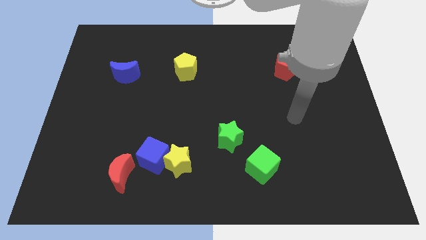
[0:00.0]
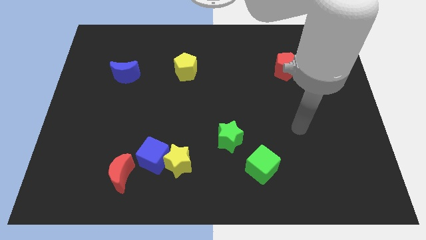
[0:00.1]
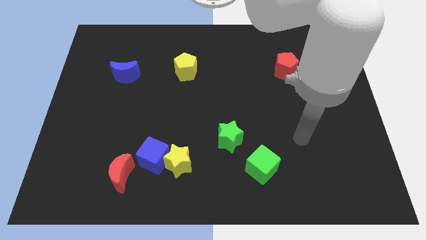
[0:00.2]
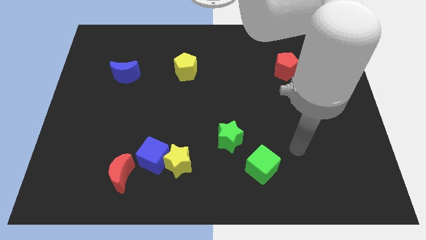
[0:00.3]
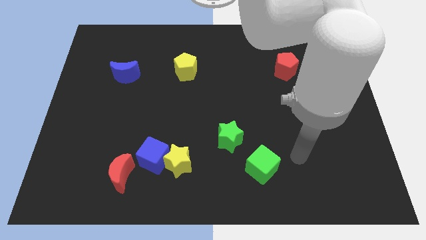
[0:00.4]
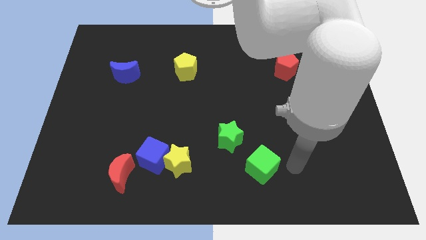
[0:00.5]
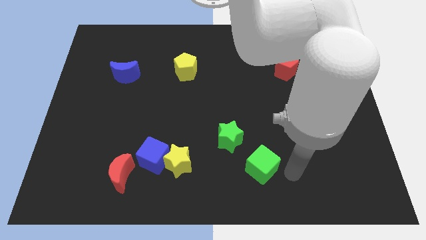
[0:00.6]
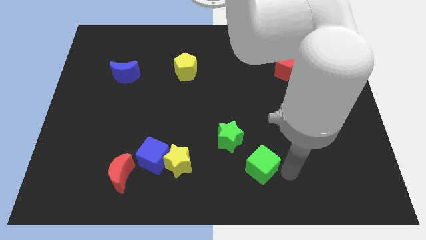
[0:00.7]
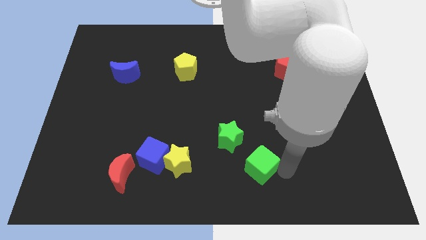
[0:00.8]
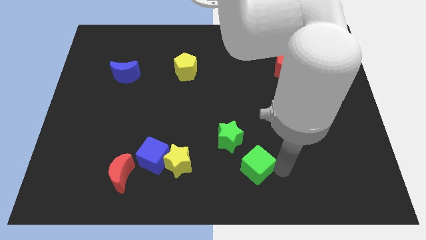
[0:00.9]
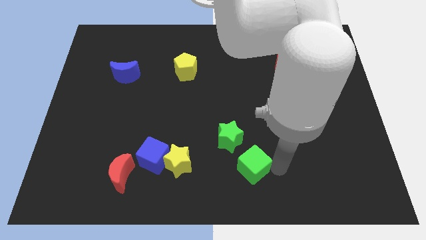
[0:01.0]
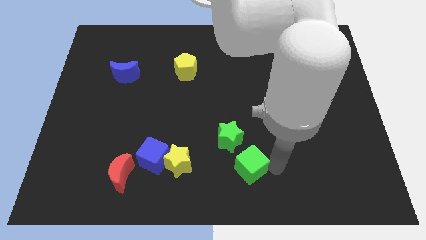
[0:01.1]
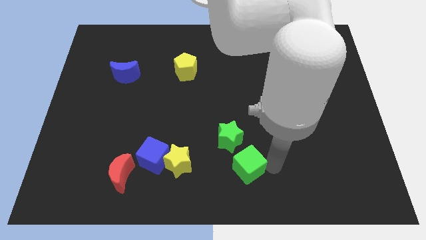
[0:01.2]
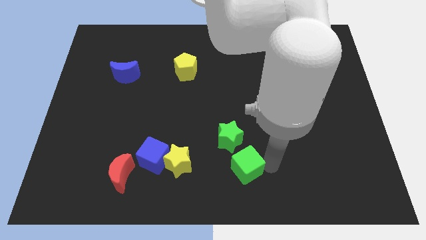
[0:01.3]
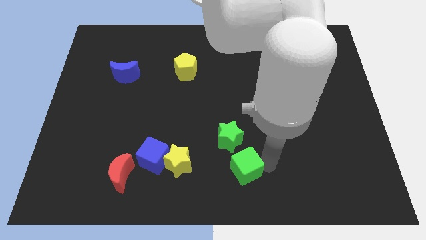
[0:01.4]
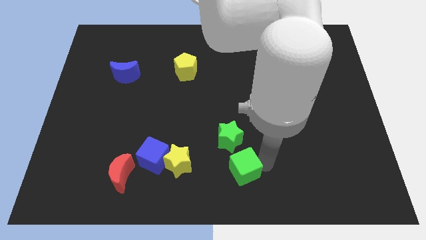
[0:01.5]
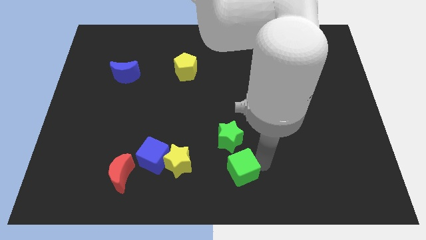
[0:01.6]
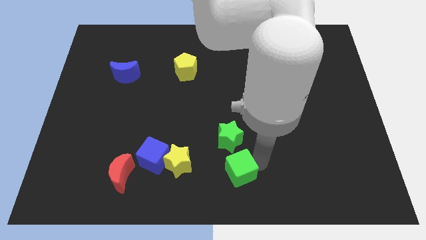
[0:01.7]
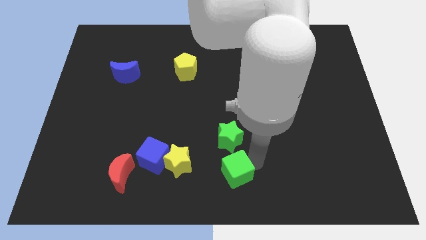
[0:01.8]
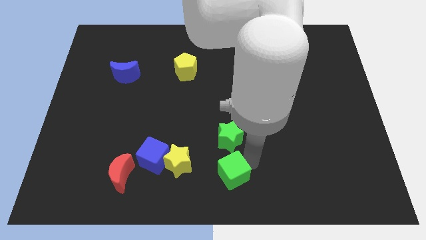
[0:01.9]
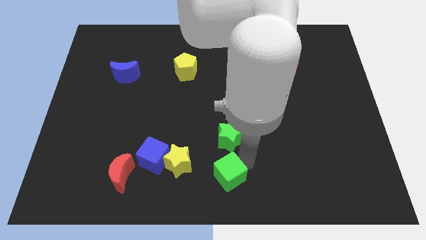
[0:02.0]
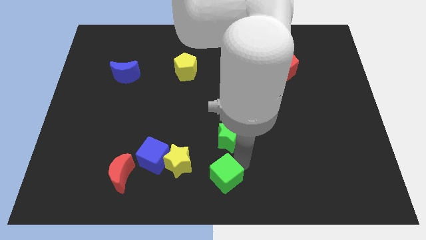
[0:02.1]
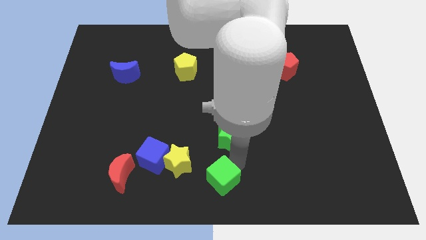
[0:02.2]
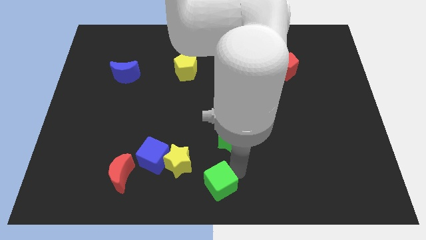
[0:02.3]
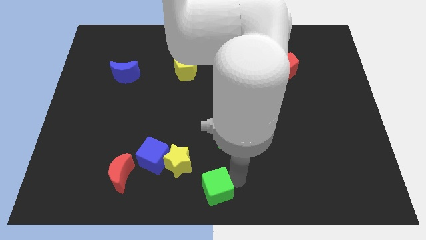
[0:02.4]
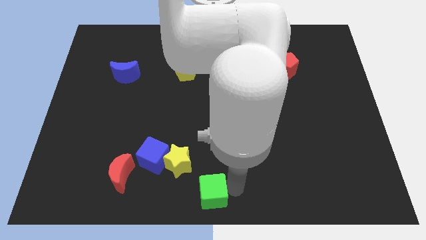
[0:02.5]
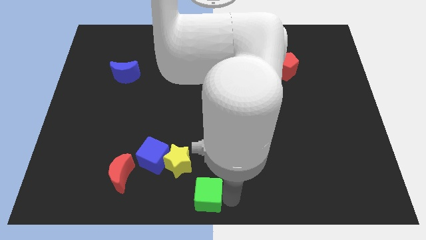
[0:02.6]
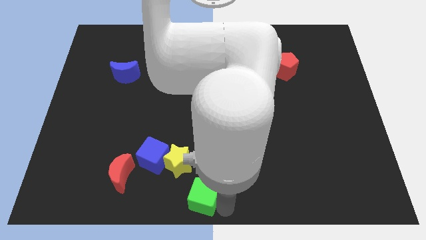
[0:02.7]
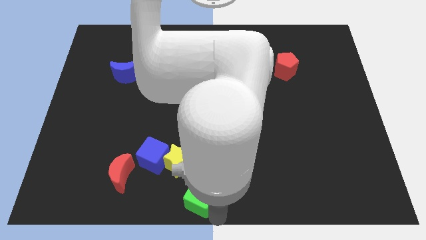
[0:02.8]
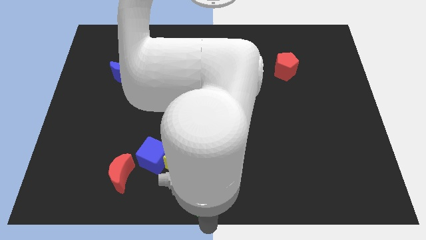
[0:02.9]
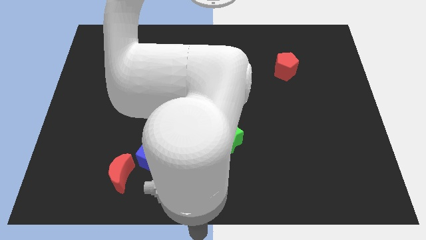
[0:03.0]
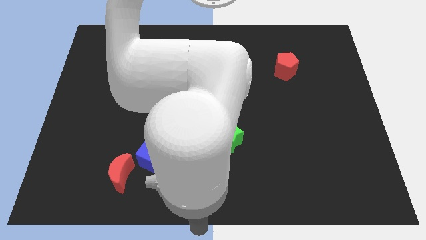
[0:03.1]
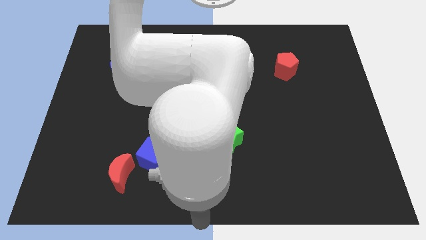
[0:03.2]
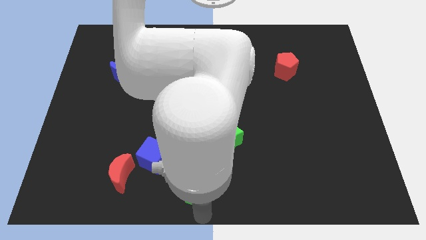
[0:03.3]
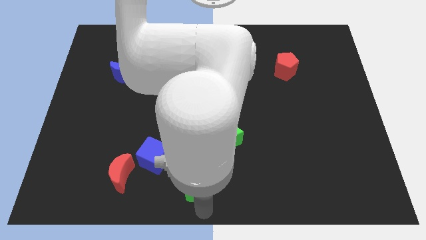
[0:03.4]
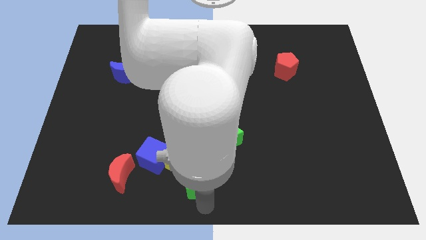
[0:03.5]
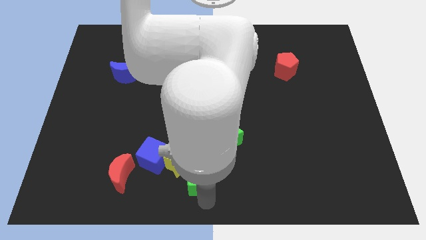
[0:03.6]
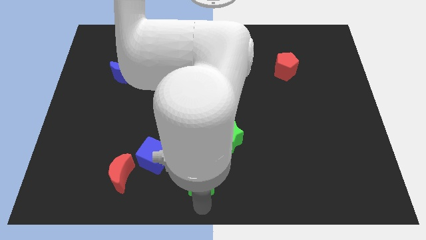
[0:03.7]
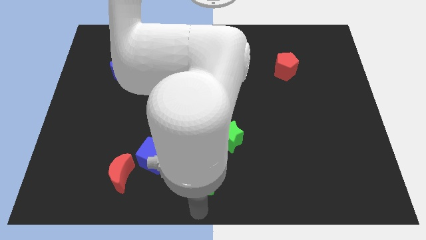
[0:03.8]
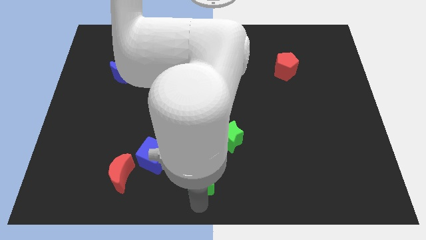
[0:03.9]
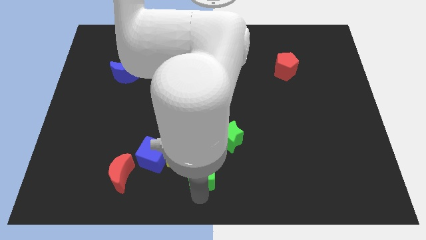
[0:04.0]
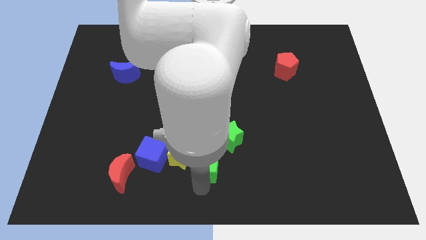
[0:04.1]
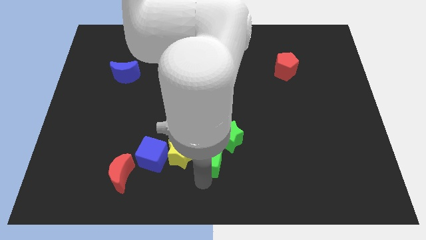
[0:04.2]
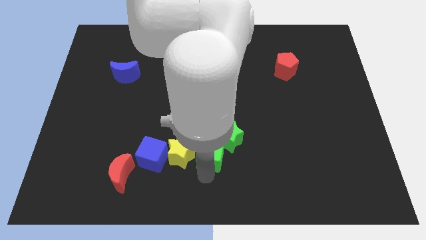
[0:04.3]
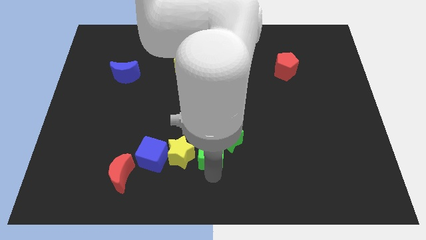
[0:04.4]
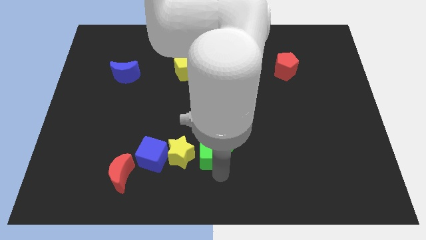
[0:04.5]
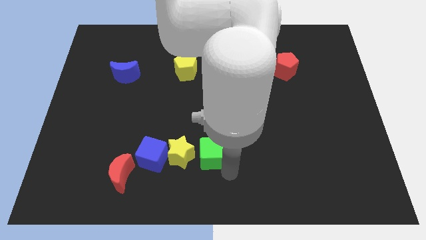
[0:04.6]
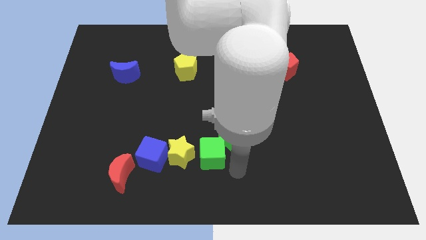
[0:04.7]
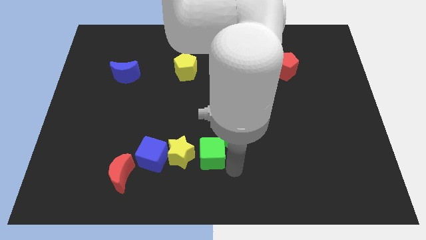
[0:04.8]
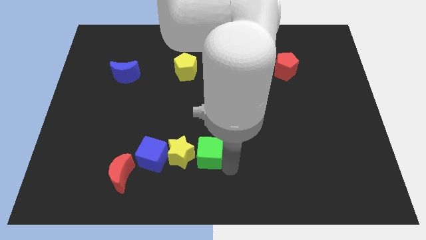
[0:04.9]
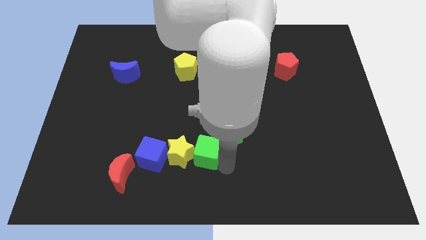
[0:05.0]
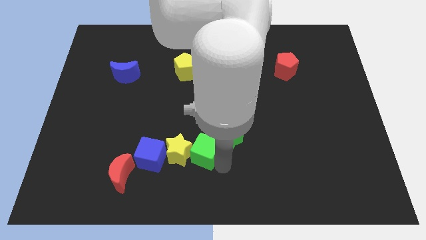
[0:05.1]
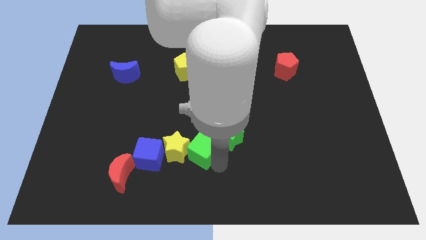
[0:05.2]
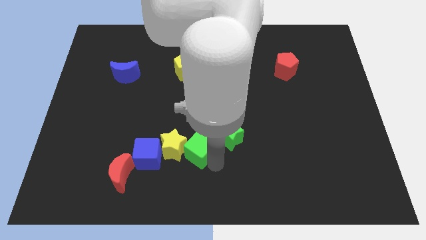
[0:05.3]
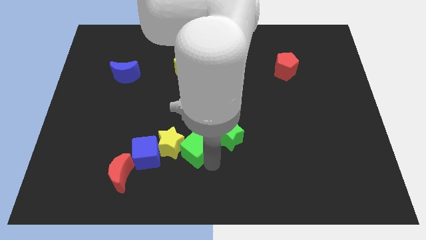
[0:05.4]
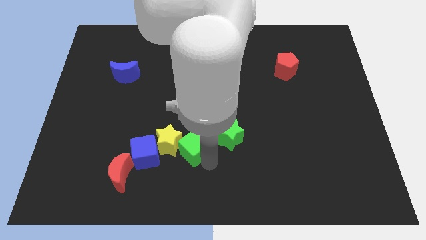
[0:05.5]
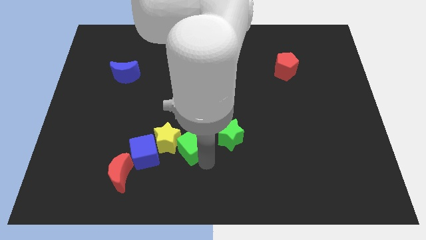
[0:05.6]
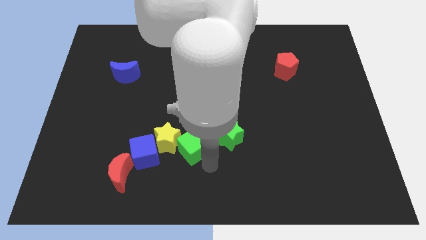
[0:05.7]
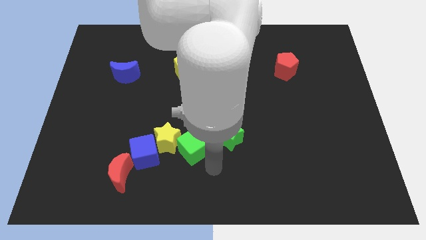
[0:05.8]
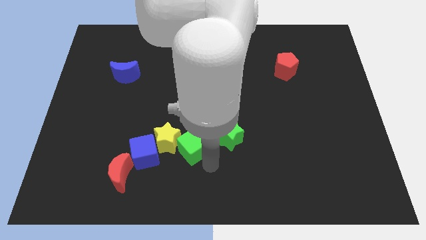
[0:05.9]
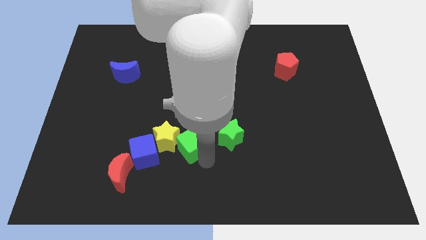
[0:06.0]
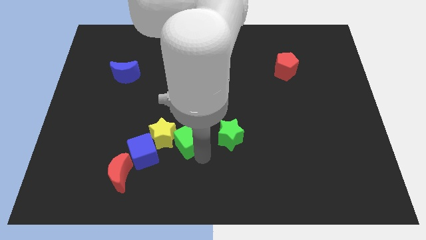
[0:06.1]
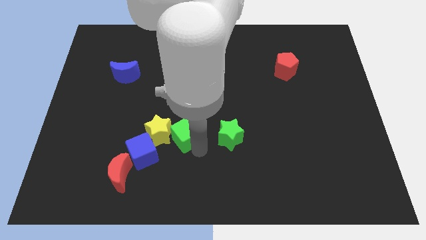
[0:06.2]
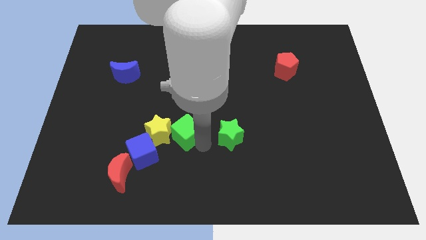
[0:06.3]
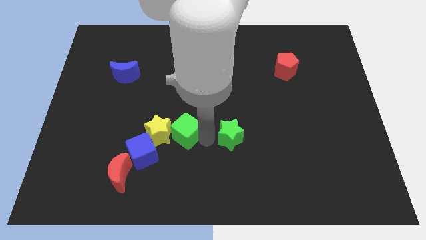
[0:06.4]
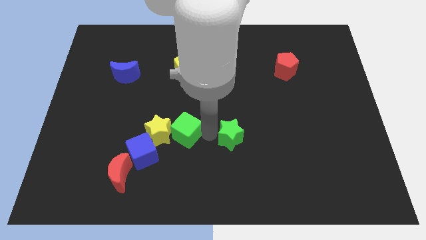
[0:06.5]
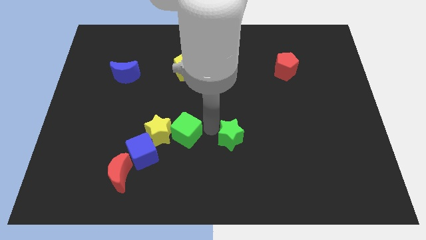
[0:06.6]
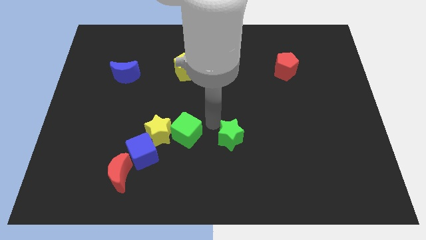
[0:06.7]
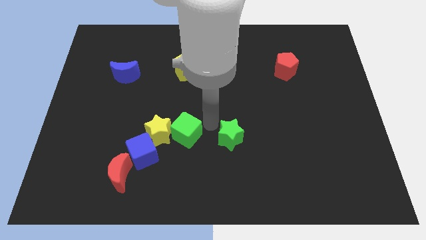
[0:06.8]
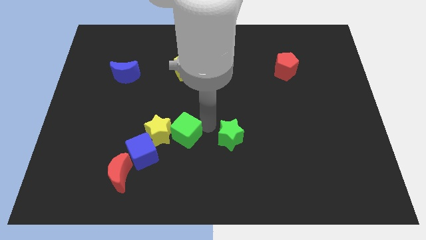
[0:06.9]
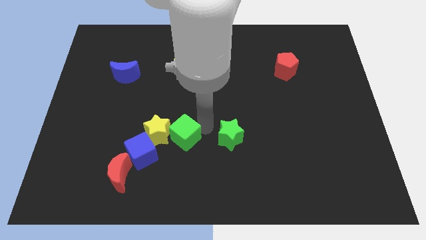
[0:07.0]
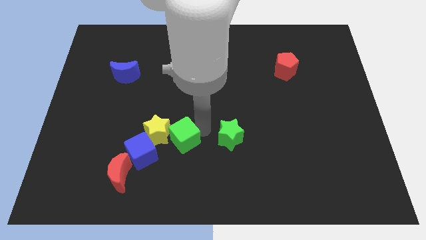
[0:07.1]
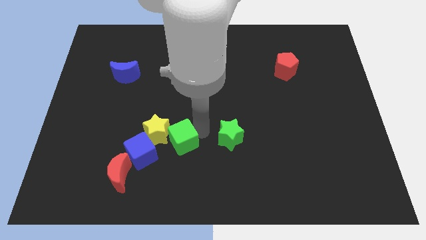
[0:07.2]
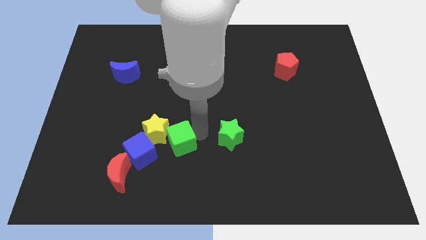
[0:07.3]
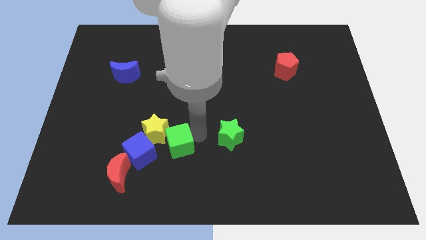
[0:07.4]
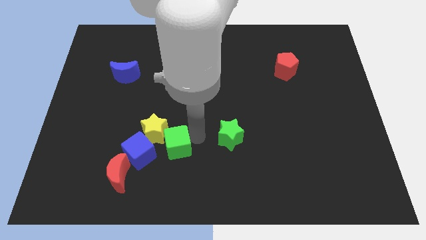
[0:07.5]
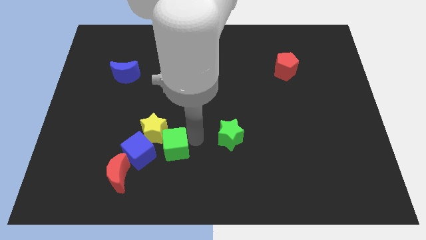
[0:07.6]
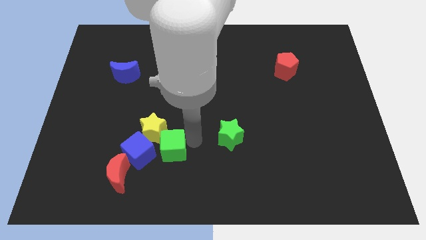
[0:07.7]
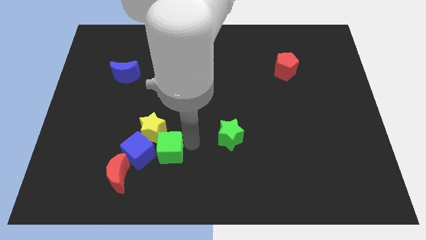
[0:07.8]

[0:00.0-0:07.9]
slide the green cube to the top right side of the red moon

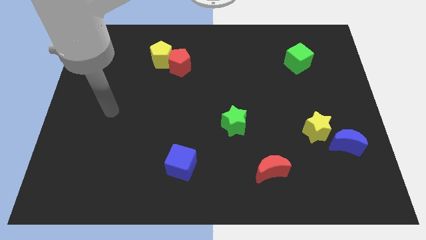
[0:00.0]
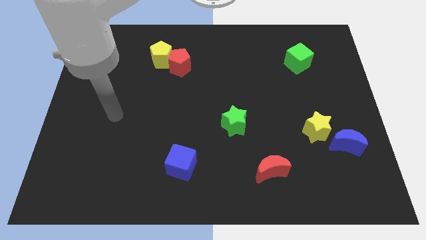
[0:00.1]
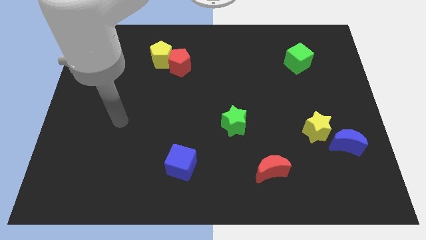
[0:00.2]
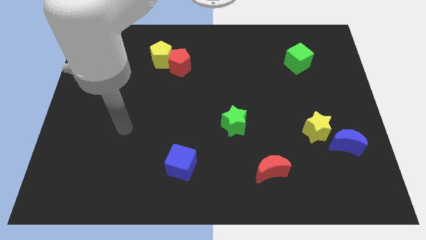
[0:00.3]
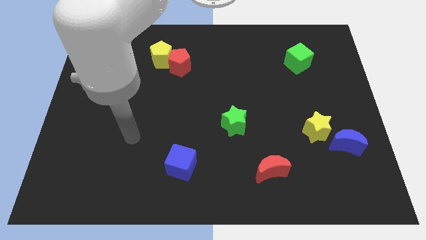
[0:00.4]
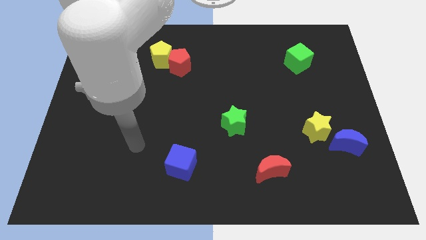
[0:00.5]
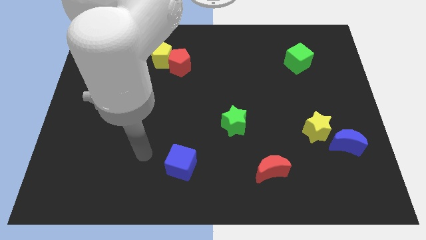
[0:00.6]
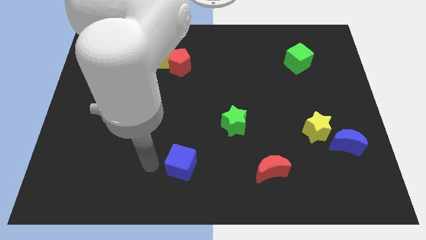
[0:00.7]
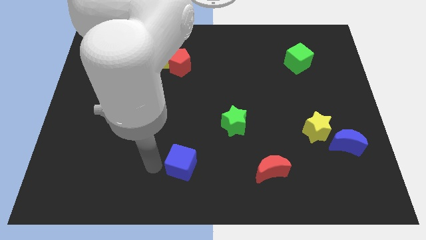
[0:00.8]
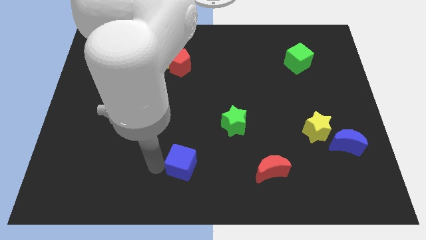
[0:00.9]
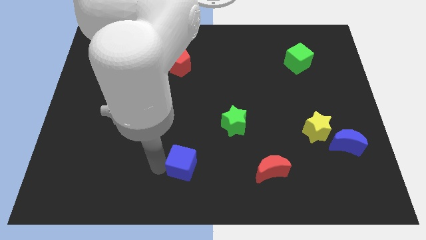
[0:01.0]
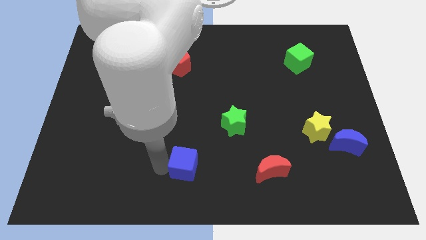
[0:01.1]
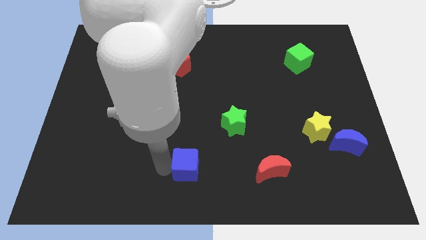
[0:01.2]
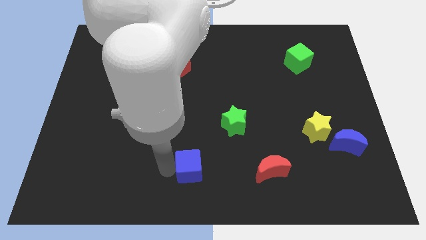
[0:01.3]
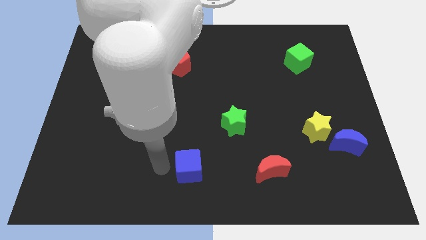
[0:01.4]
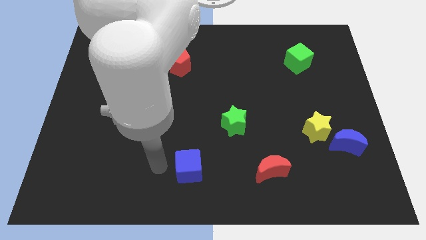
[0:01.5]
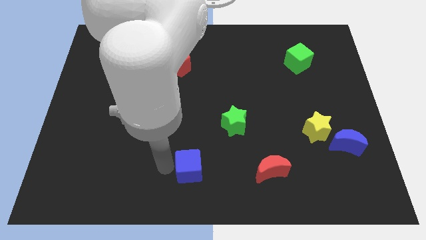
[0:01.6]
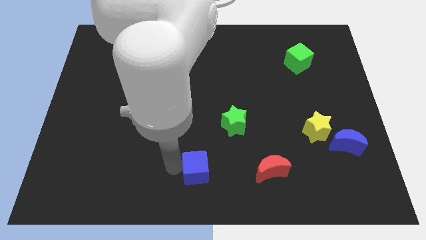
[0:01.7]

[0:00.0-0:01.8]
move the blue cube just left of the red moon
